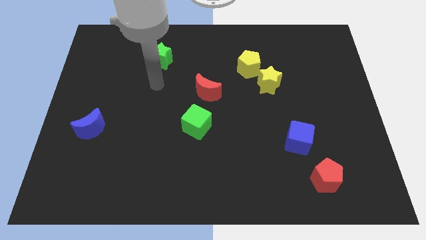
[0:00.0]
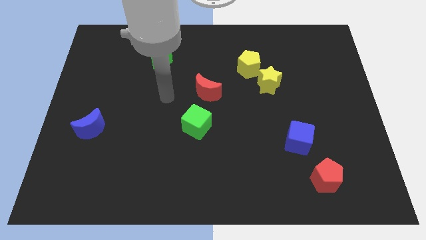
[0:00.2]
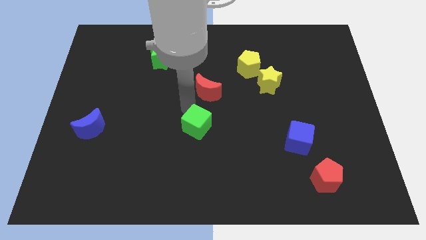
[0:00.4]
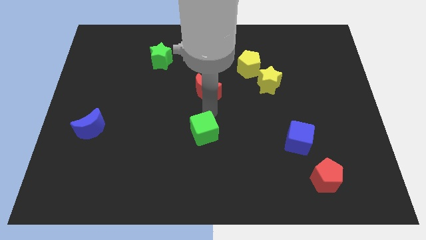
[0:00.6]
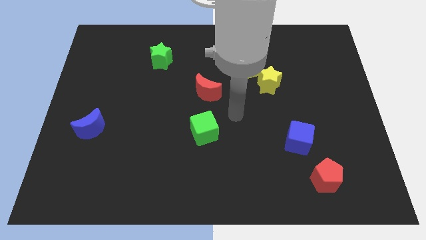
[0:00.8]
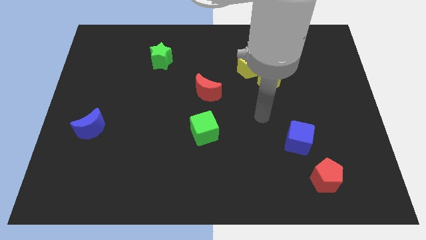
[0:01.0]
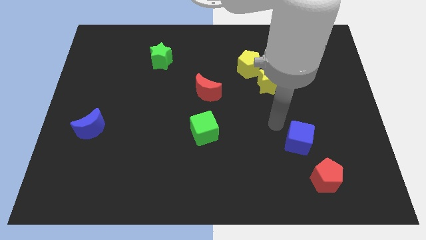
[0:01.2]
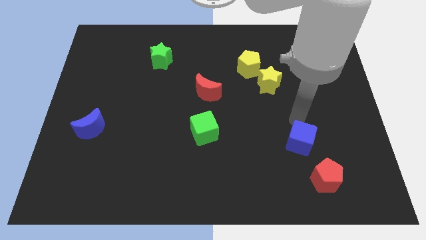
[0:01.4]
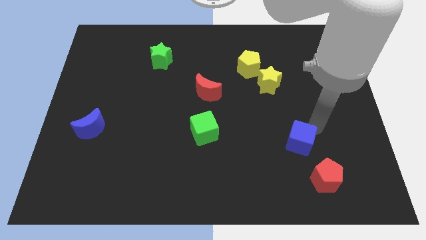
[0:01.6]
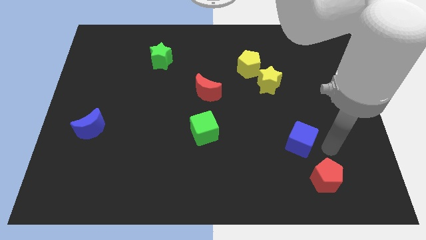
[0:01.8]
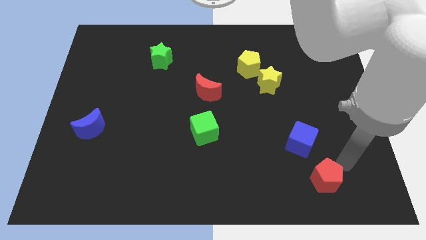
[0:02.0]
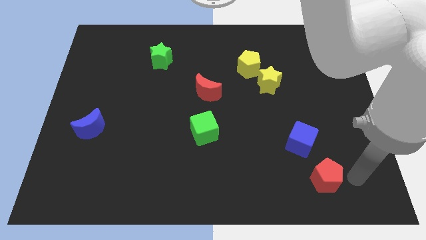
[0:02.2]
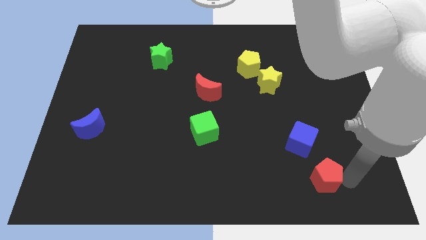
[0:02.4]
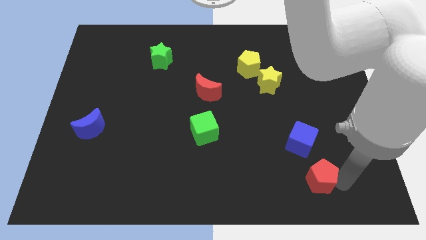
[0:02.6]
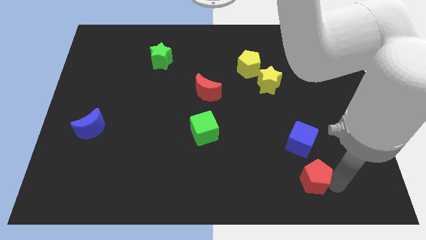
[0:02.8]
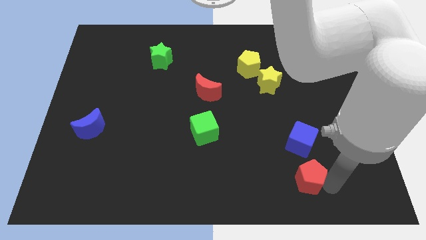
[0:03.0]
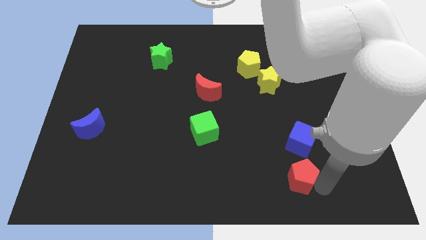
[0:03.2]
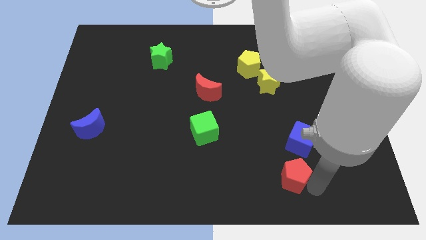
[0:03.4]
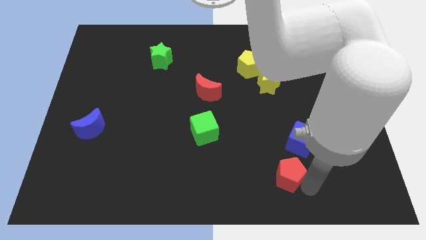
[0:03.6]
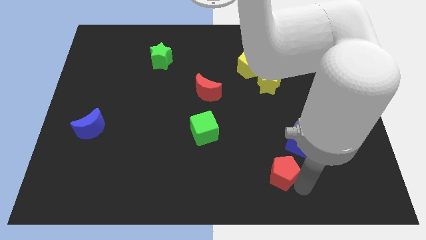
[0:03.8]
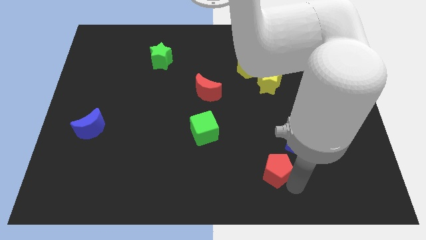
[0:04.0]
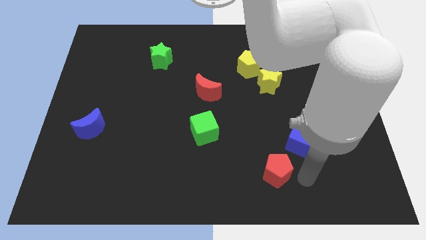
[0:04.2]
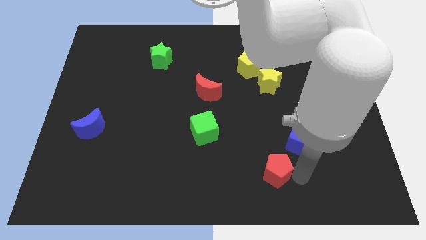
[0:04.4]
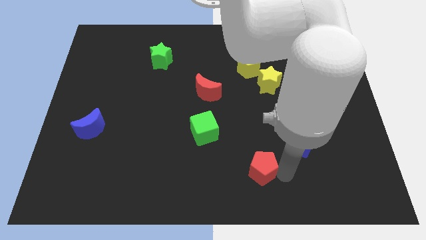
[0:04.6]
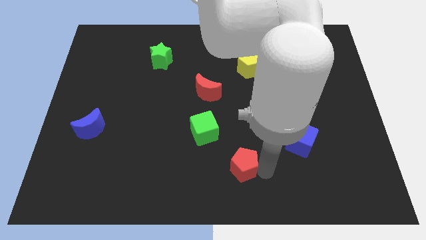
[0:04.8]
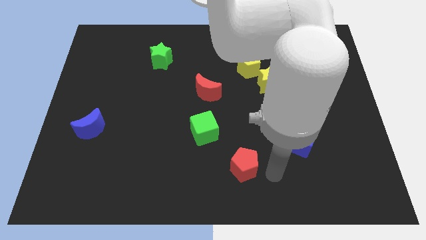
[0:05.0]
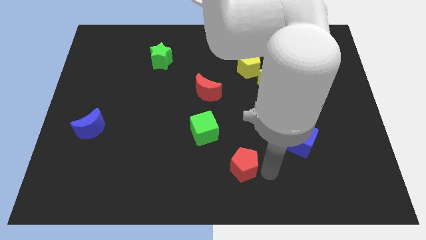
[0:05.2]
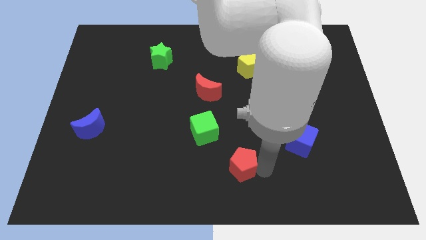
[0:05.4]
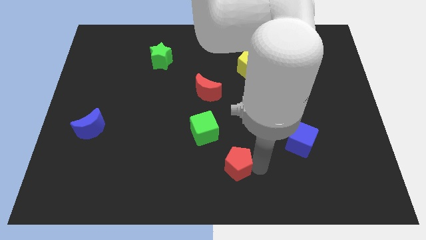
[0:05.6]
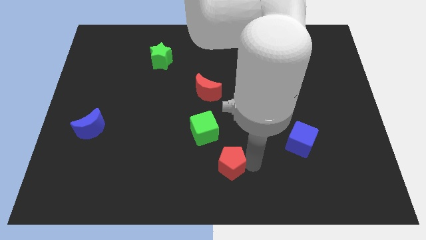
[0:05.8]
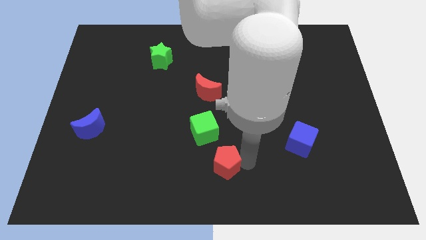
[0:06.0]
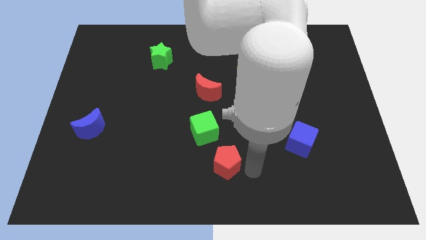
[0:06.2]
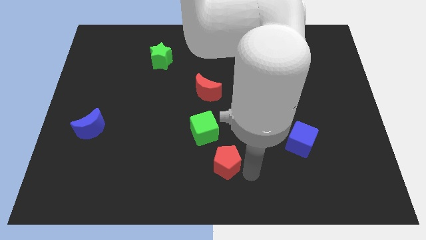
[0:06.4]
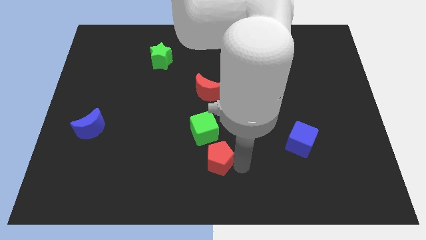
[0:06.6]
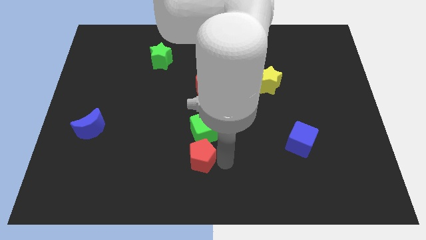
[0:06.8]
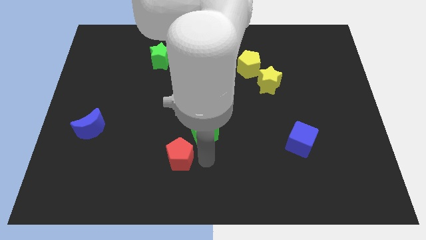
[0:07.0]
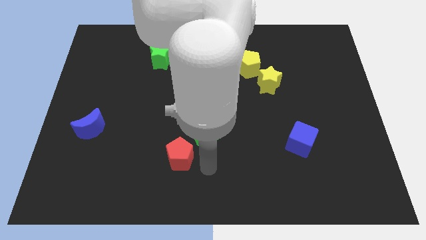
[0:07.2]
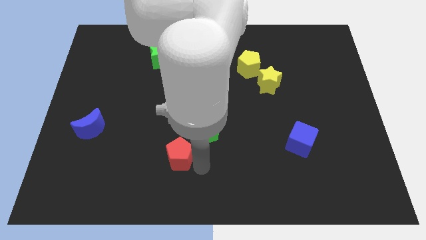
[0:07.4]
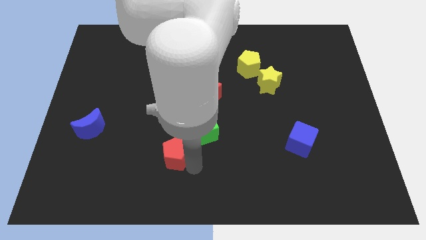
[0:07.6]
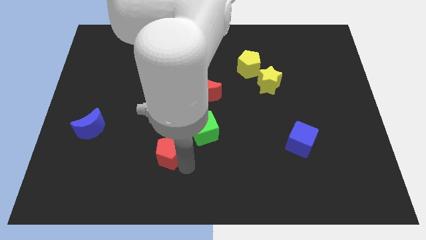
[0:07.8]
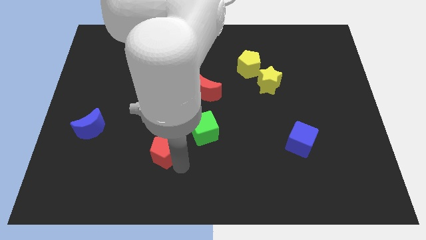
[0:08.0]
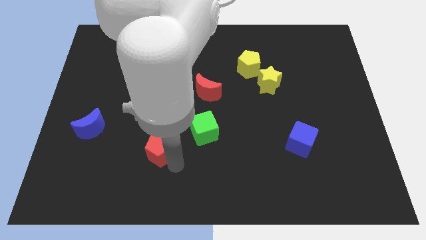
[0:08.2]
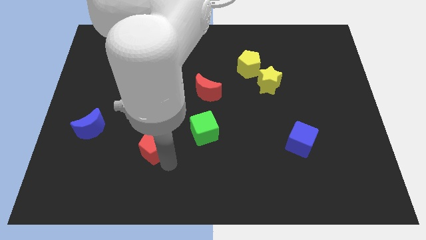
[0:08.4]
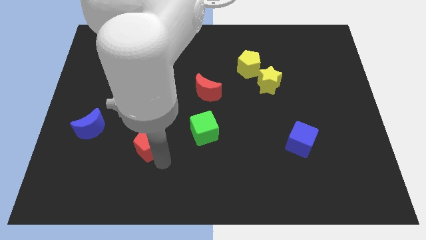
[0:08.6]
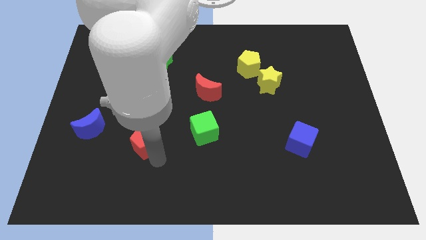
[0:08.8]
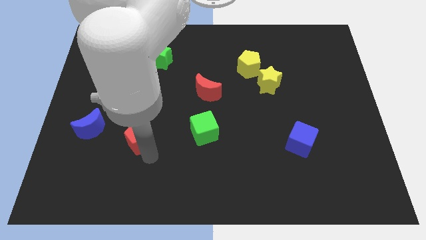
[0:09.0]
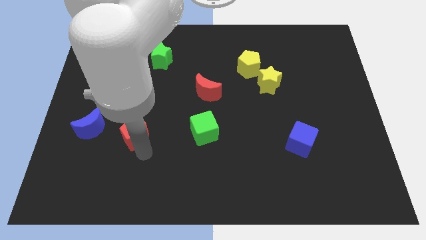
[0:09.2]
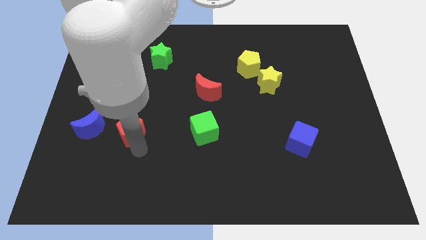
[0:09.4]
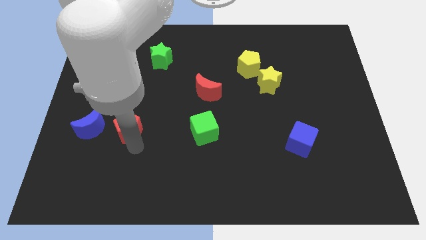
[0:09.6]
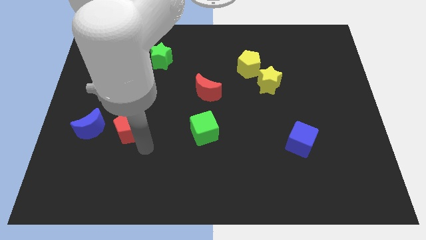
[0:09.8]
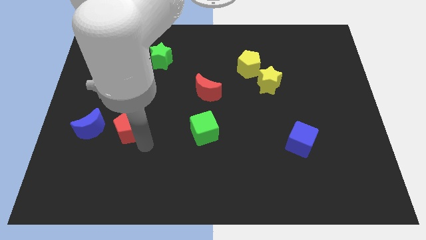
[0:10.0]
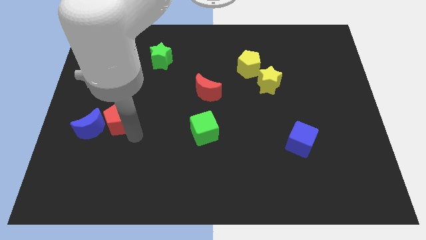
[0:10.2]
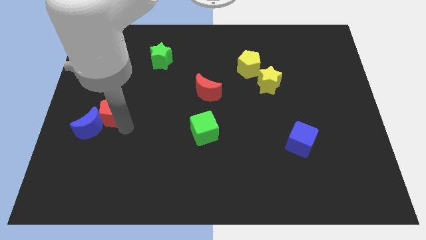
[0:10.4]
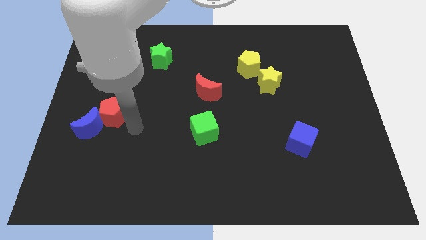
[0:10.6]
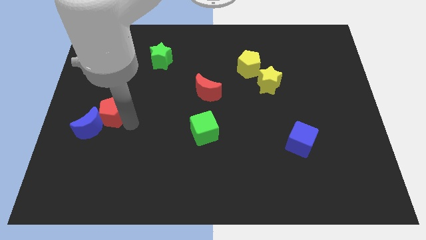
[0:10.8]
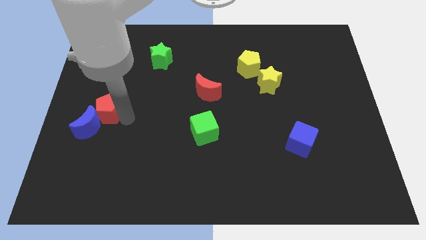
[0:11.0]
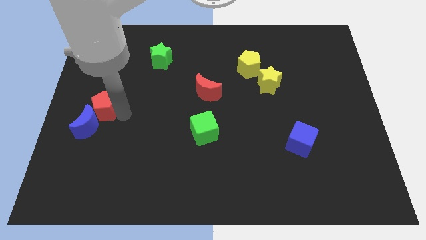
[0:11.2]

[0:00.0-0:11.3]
put the red pentagon to the left side of the board

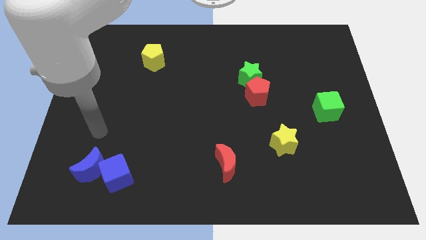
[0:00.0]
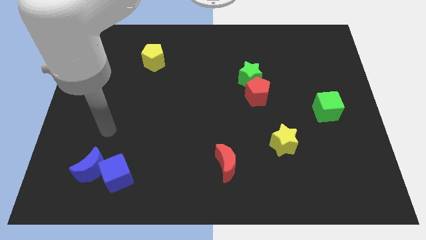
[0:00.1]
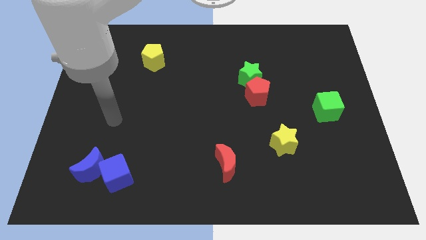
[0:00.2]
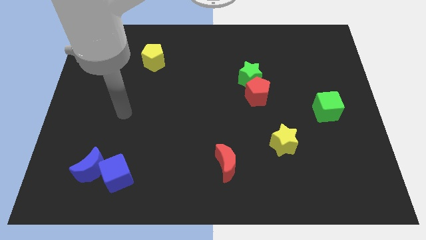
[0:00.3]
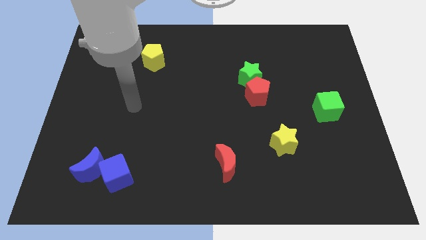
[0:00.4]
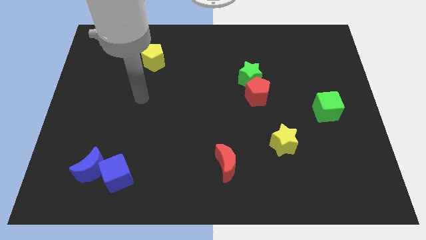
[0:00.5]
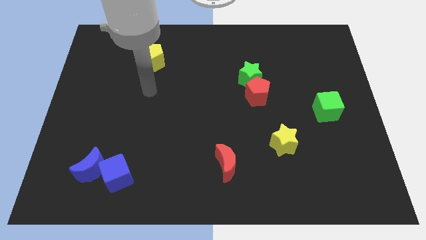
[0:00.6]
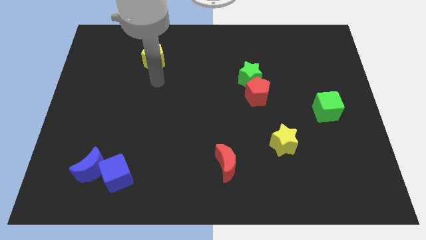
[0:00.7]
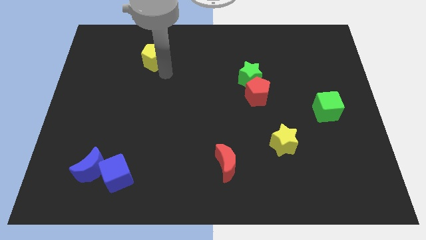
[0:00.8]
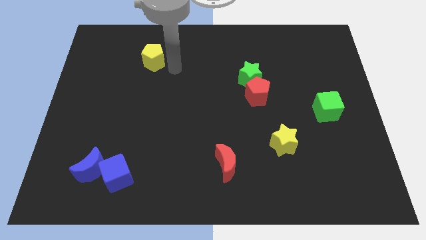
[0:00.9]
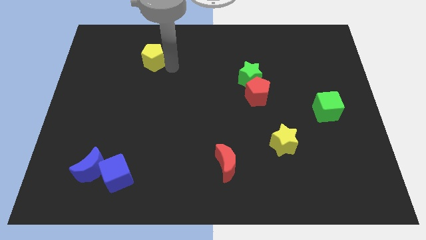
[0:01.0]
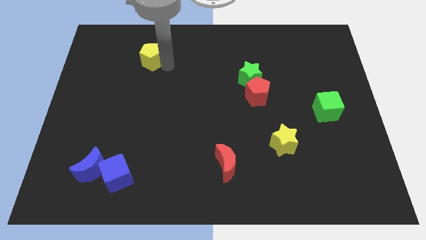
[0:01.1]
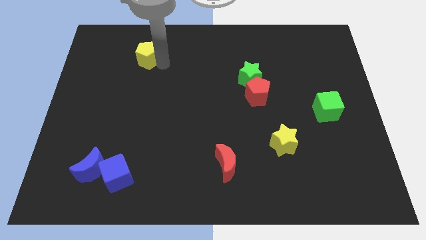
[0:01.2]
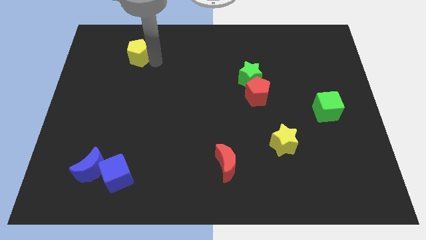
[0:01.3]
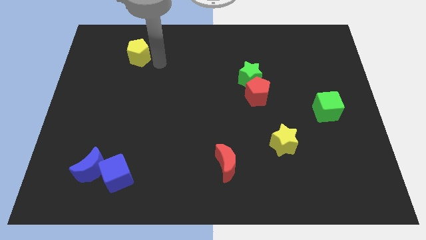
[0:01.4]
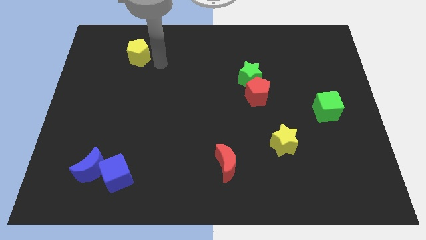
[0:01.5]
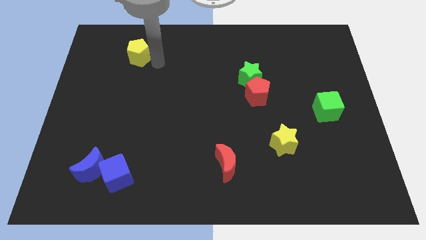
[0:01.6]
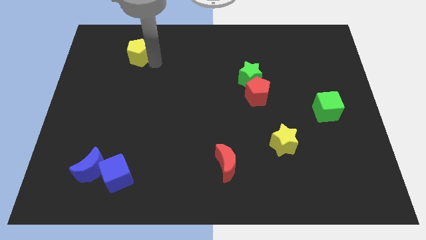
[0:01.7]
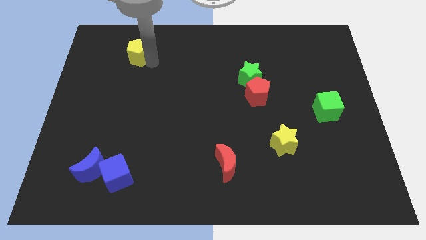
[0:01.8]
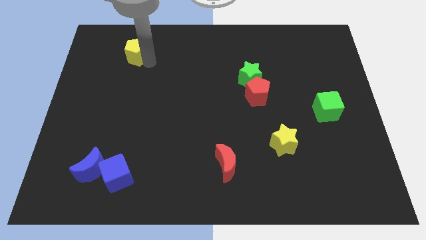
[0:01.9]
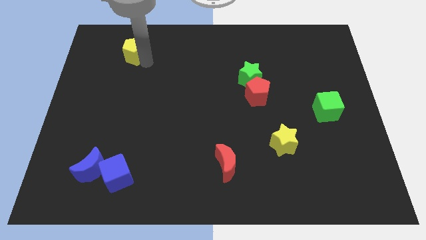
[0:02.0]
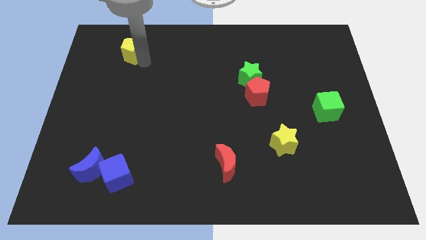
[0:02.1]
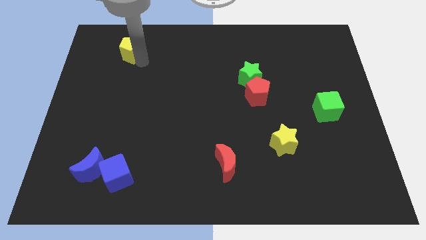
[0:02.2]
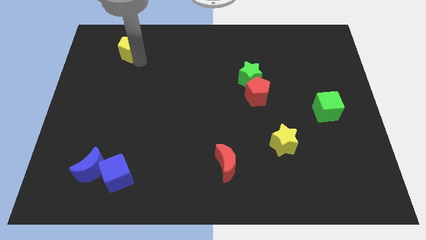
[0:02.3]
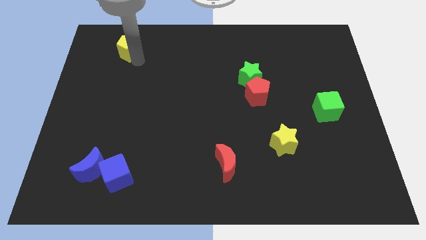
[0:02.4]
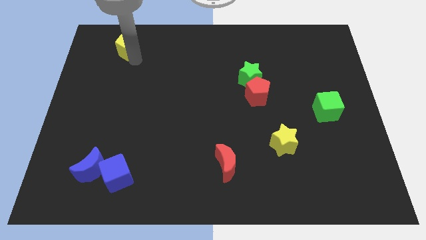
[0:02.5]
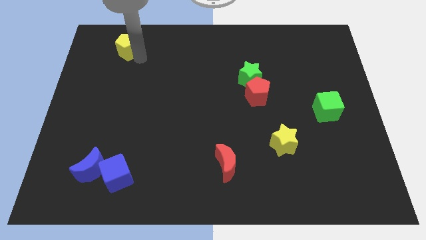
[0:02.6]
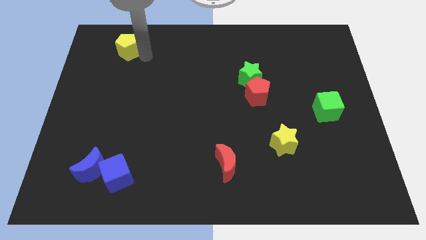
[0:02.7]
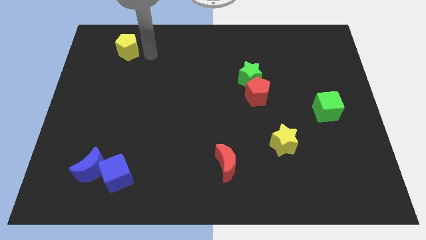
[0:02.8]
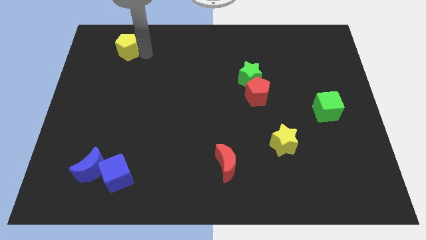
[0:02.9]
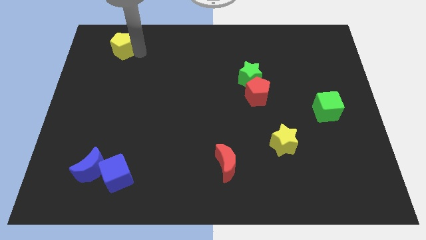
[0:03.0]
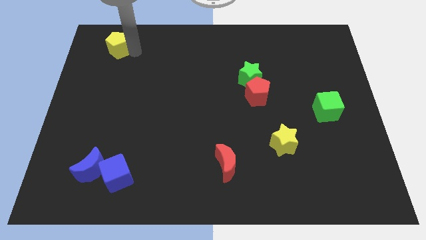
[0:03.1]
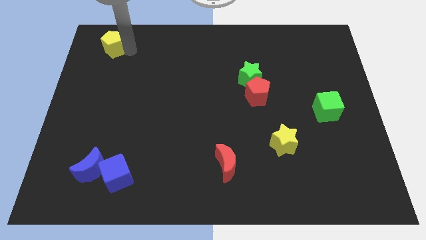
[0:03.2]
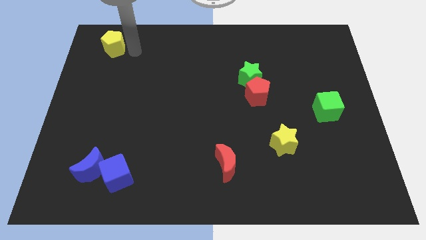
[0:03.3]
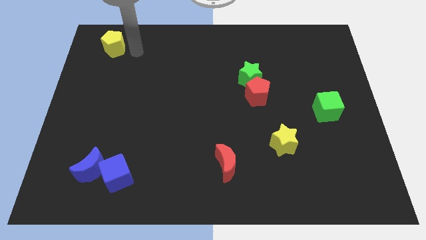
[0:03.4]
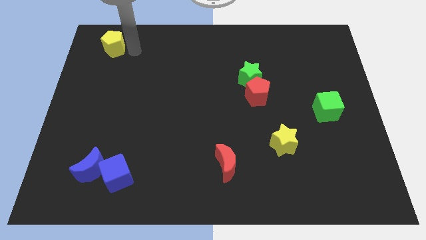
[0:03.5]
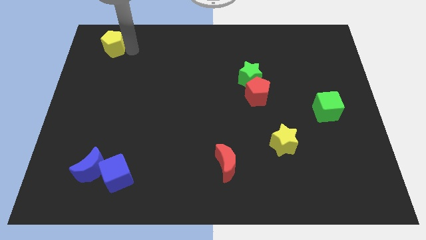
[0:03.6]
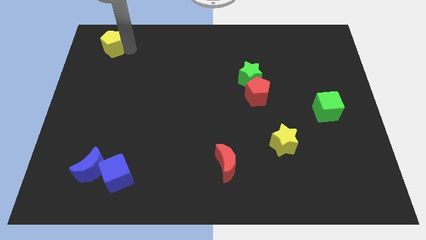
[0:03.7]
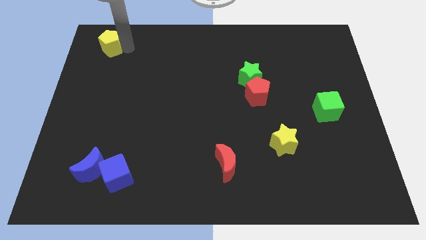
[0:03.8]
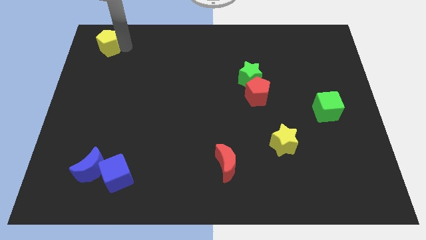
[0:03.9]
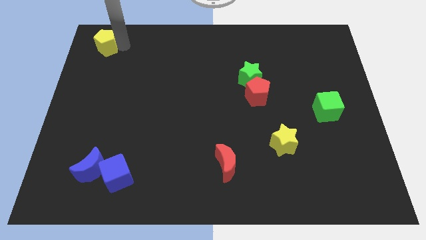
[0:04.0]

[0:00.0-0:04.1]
move the yellow pentagon to the top left corner
